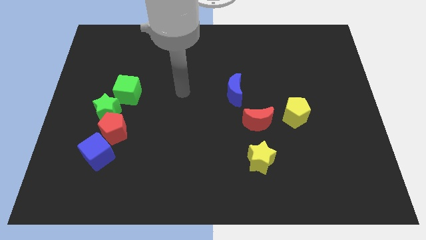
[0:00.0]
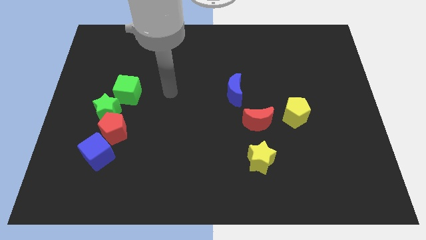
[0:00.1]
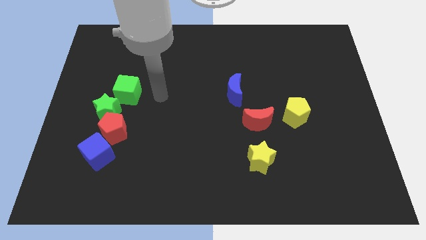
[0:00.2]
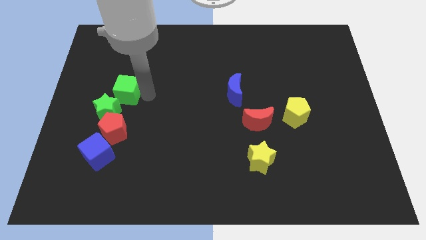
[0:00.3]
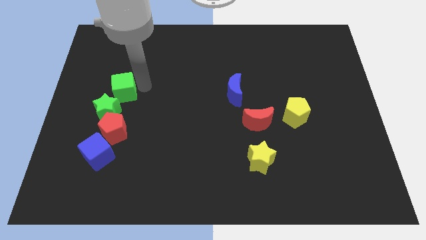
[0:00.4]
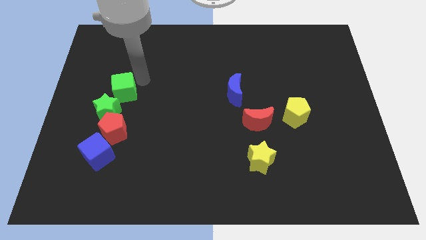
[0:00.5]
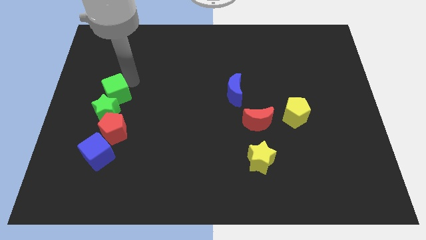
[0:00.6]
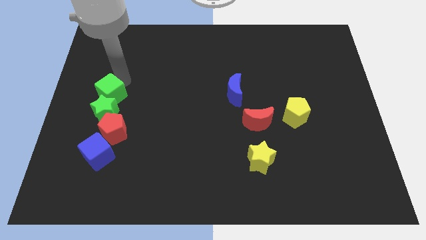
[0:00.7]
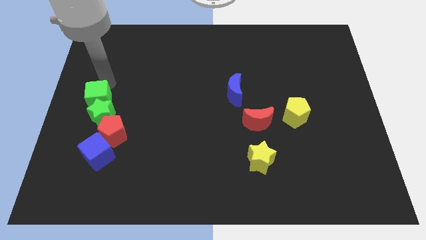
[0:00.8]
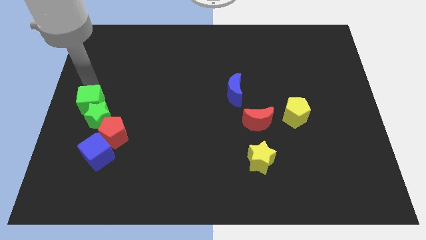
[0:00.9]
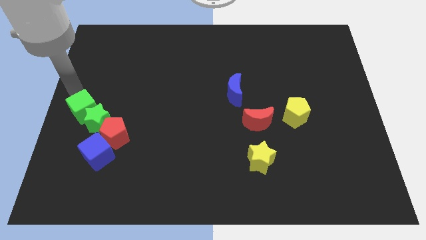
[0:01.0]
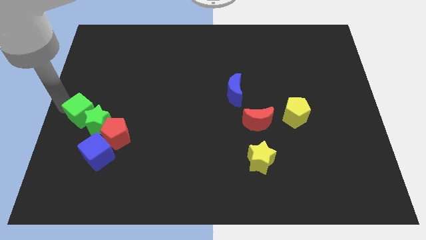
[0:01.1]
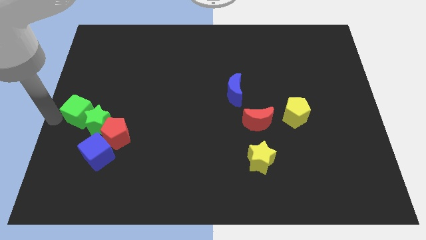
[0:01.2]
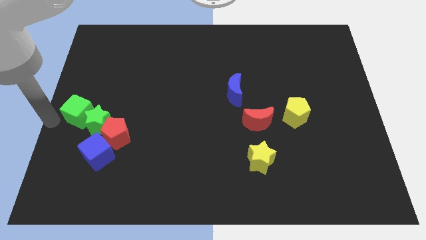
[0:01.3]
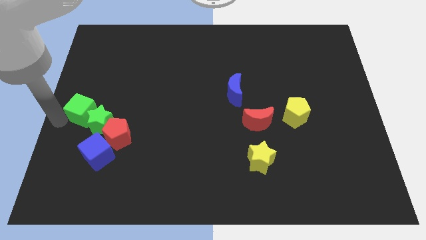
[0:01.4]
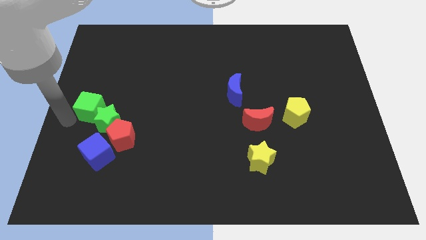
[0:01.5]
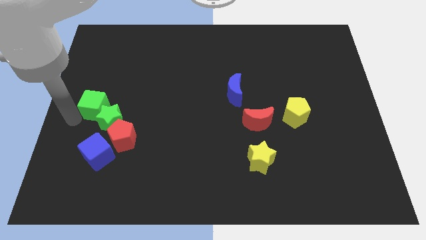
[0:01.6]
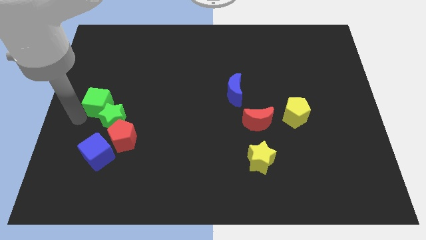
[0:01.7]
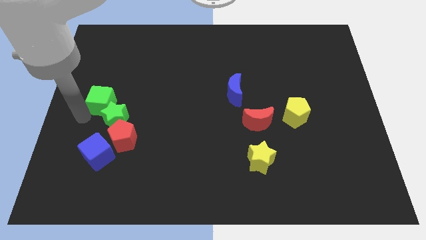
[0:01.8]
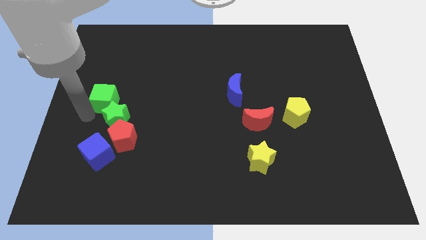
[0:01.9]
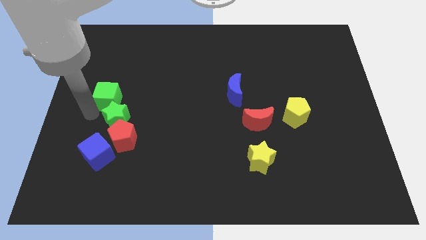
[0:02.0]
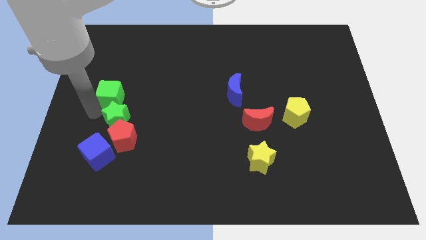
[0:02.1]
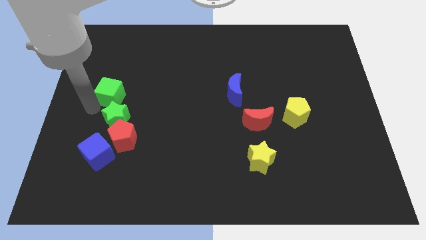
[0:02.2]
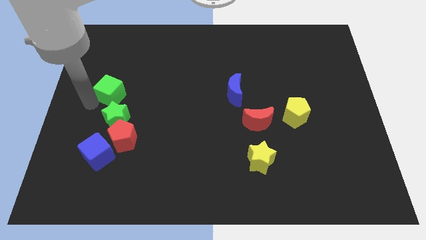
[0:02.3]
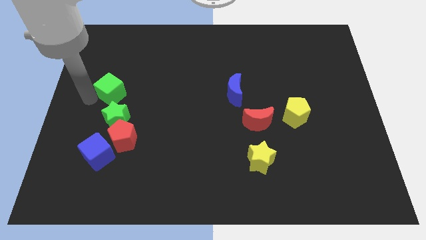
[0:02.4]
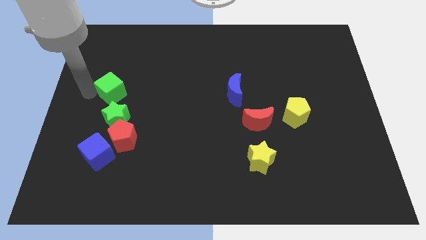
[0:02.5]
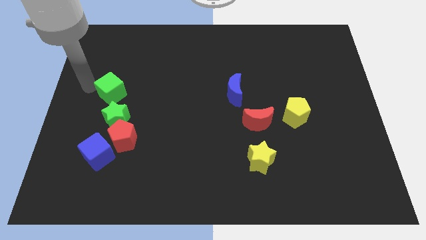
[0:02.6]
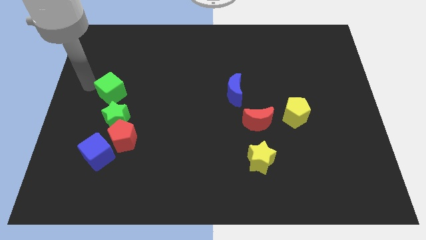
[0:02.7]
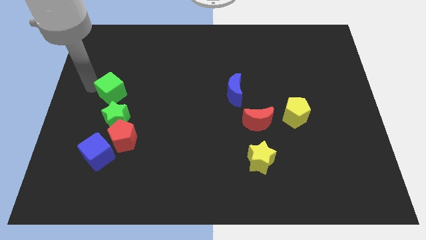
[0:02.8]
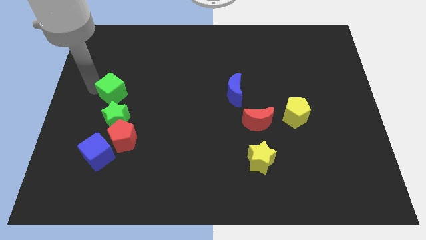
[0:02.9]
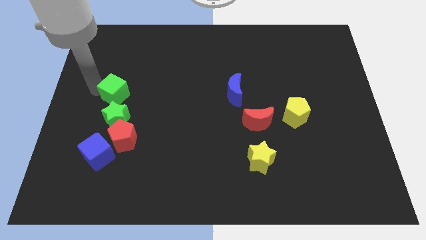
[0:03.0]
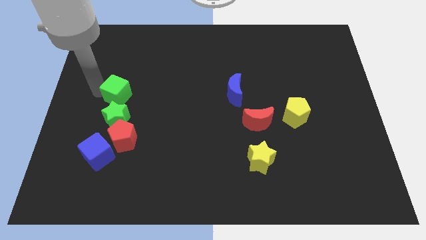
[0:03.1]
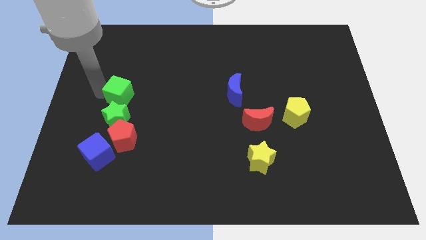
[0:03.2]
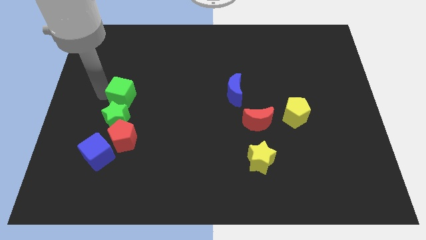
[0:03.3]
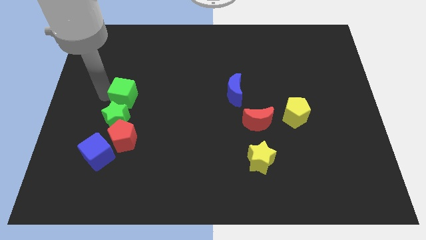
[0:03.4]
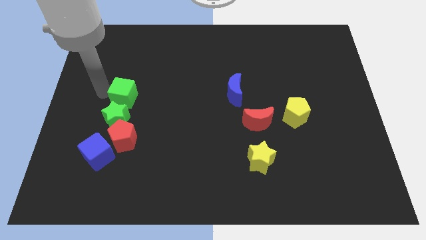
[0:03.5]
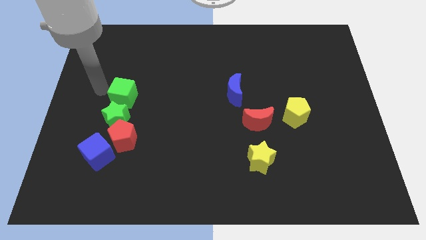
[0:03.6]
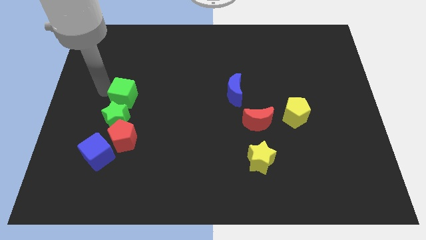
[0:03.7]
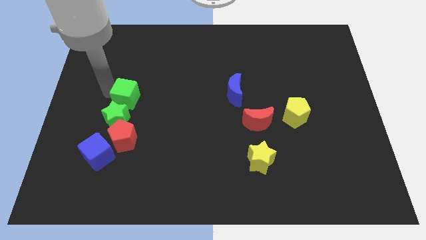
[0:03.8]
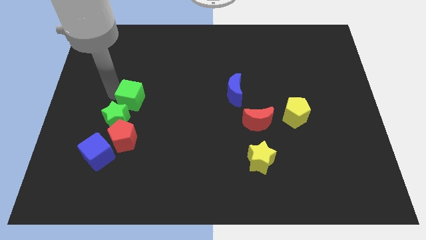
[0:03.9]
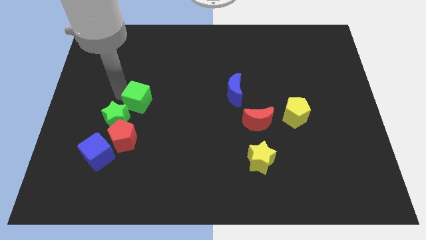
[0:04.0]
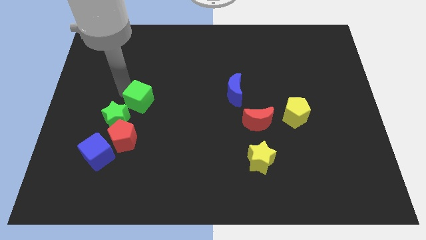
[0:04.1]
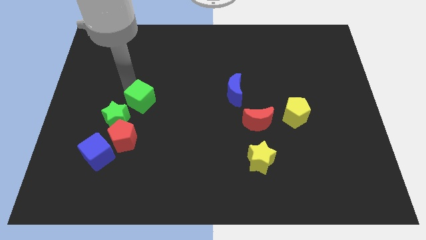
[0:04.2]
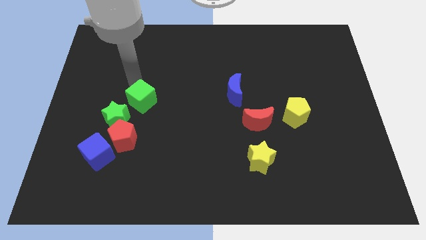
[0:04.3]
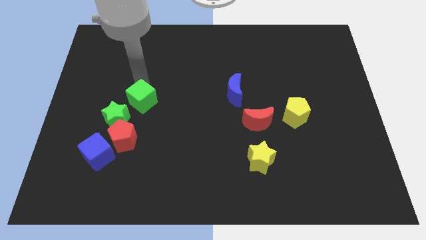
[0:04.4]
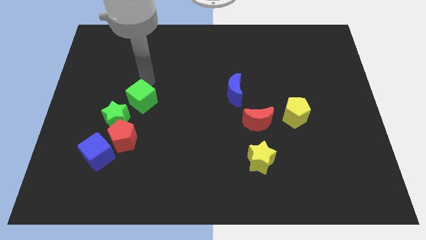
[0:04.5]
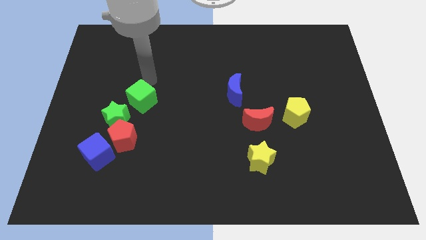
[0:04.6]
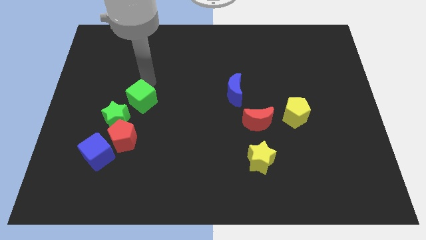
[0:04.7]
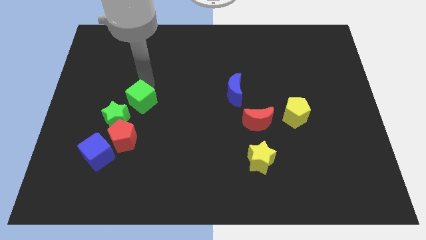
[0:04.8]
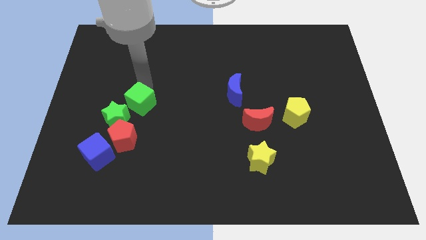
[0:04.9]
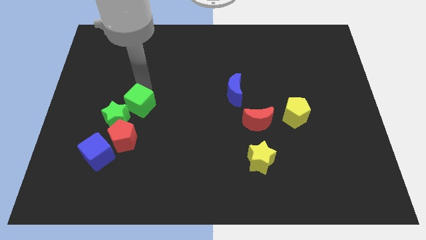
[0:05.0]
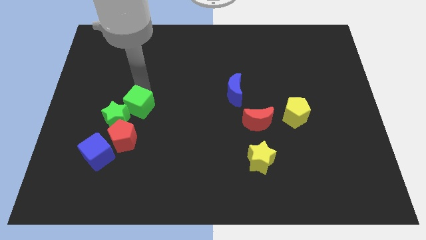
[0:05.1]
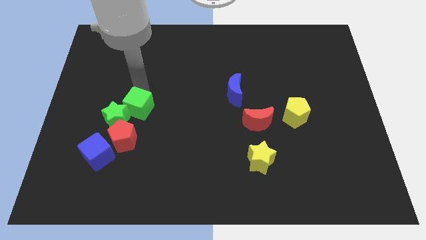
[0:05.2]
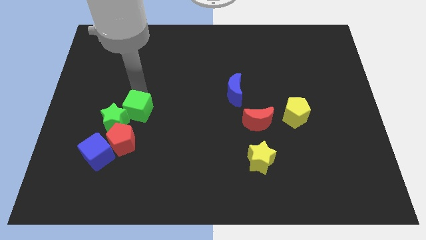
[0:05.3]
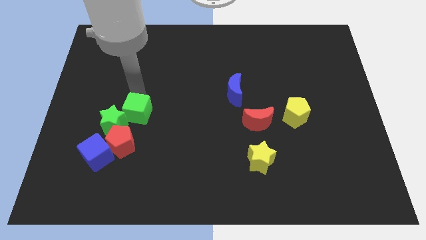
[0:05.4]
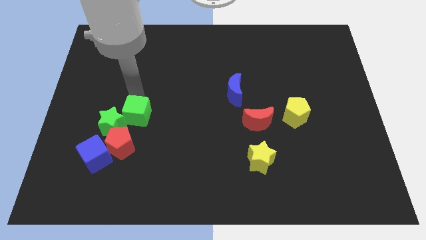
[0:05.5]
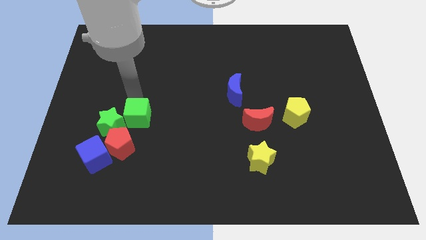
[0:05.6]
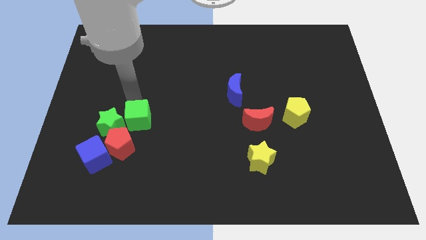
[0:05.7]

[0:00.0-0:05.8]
slightly slide the green cube down

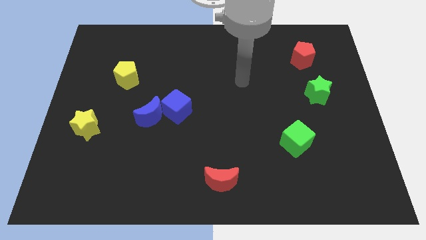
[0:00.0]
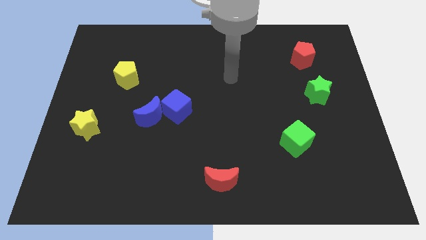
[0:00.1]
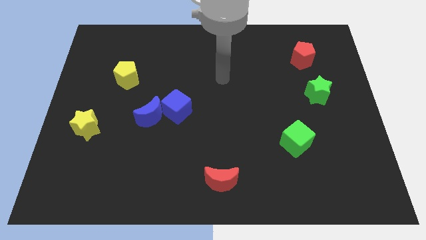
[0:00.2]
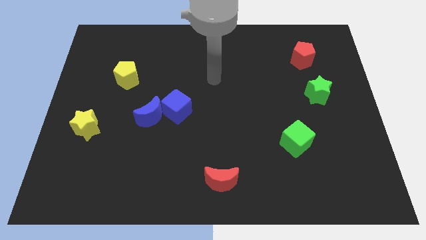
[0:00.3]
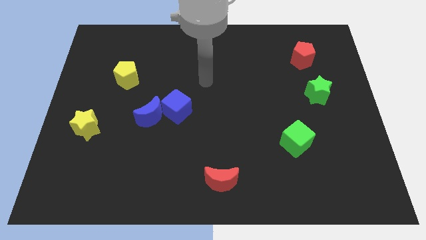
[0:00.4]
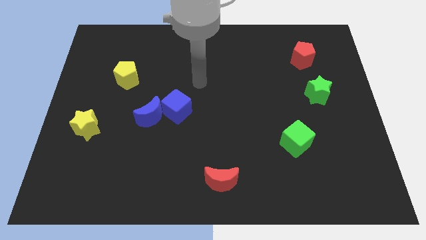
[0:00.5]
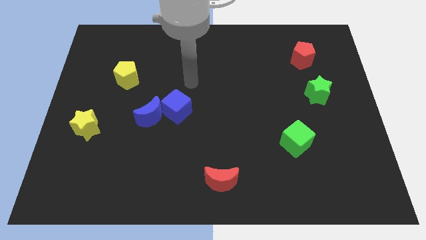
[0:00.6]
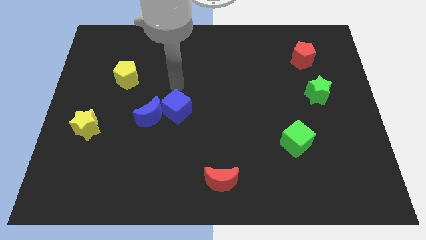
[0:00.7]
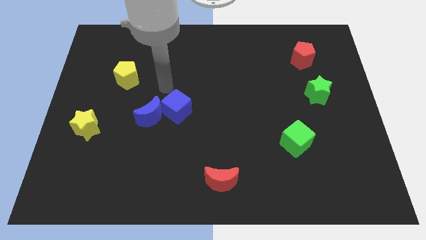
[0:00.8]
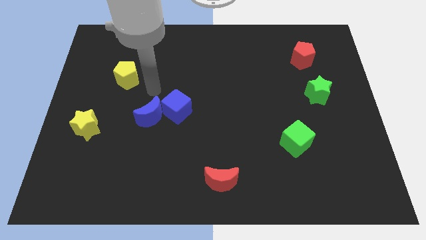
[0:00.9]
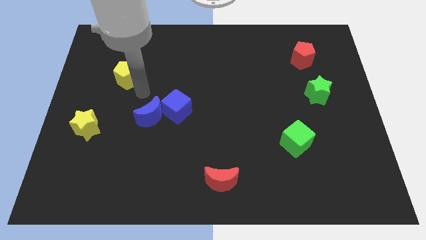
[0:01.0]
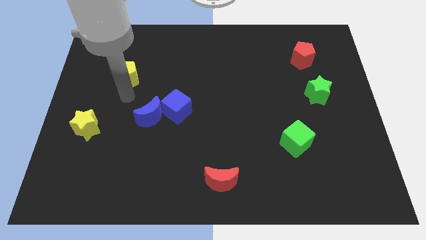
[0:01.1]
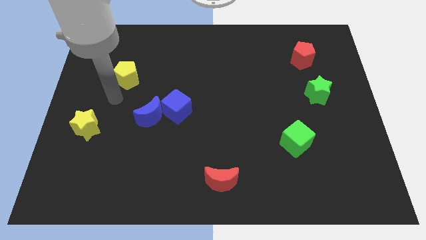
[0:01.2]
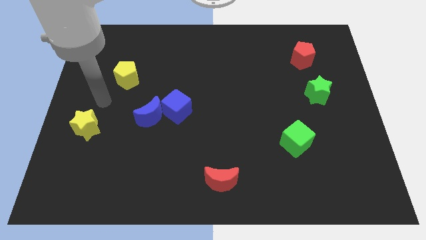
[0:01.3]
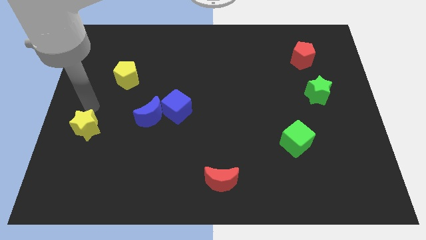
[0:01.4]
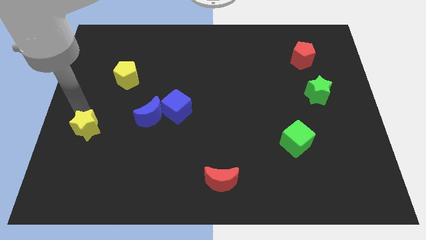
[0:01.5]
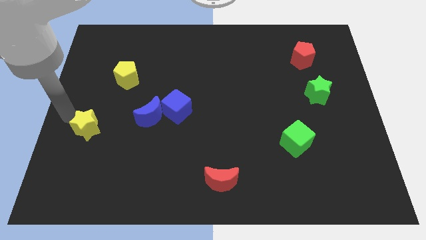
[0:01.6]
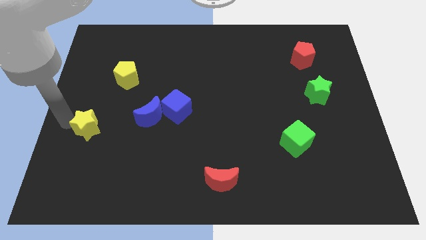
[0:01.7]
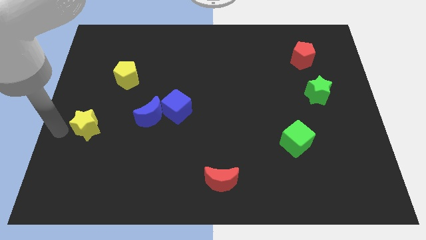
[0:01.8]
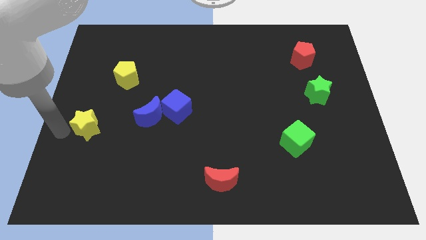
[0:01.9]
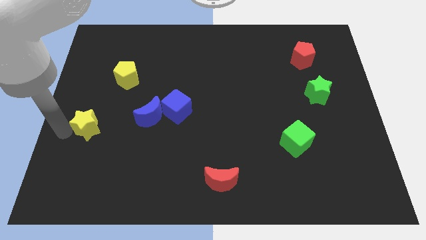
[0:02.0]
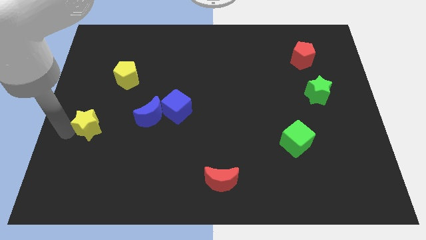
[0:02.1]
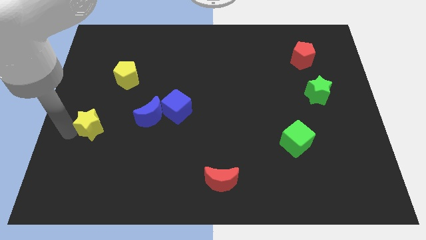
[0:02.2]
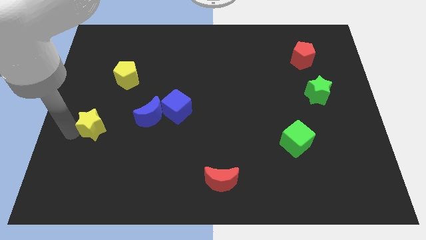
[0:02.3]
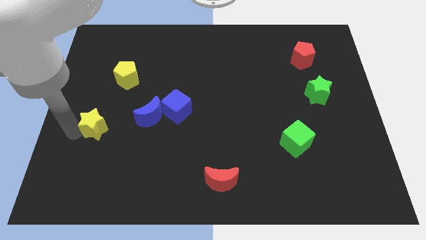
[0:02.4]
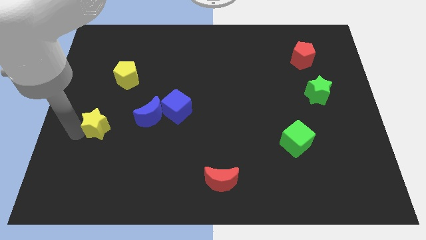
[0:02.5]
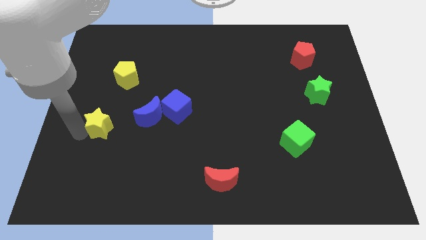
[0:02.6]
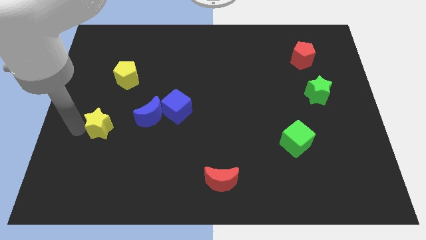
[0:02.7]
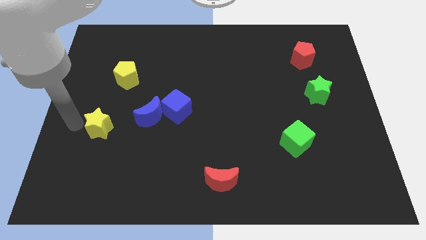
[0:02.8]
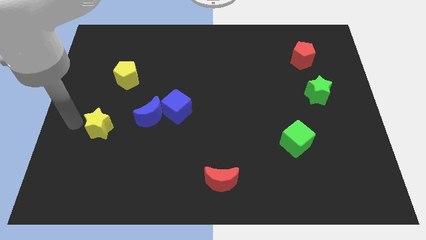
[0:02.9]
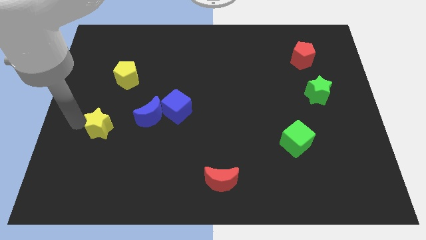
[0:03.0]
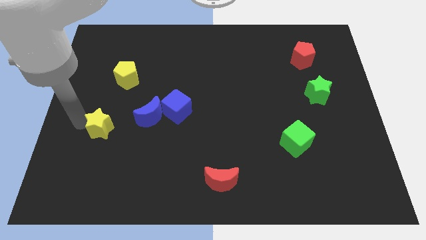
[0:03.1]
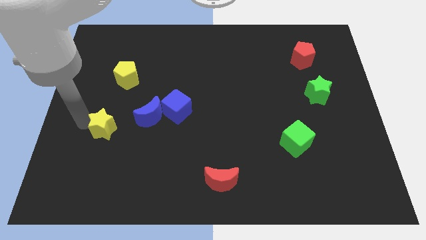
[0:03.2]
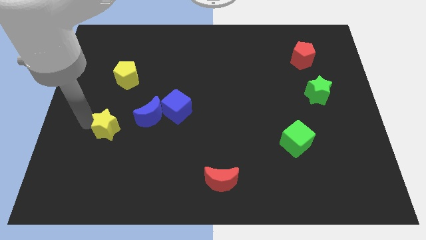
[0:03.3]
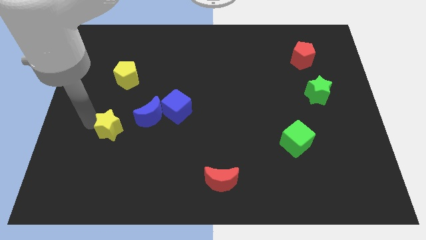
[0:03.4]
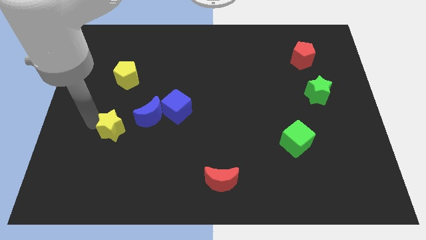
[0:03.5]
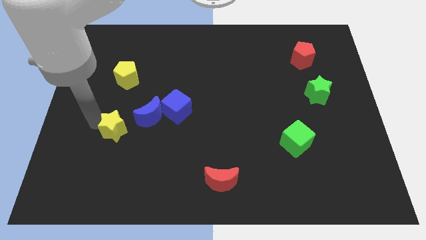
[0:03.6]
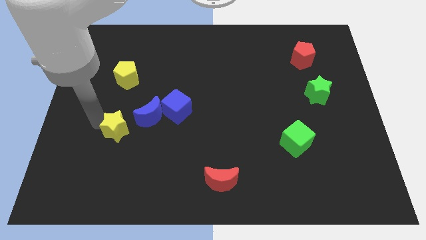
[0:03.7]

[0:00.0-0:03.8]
move the yellow star a little to the right
